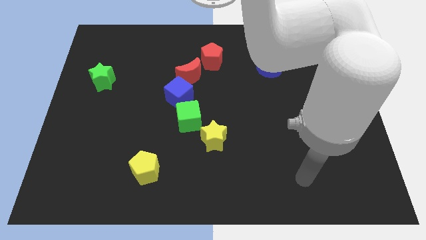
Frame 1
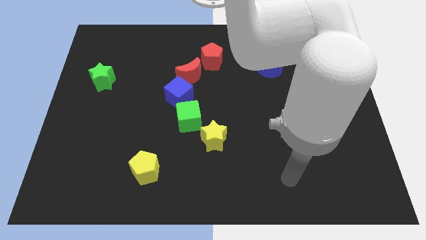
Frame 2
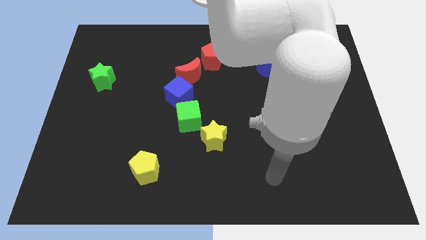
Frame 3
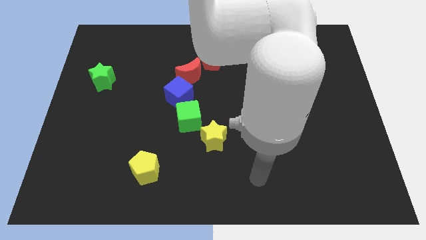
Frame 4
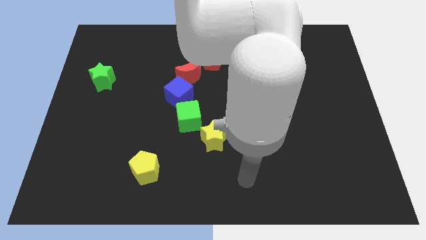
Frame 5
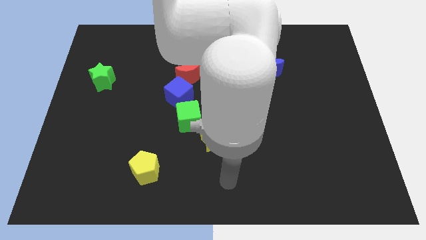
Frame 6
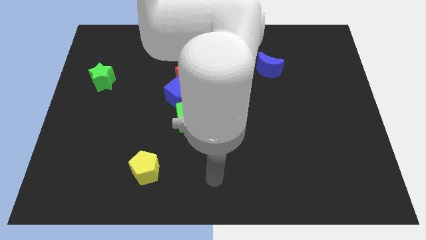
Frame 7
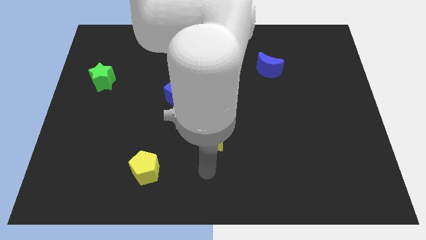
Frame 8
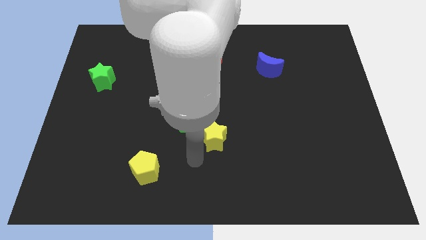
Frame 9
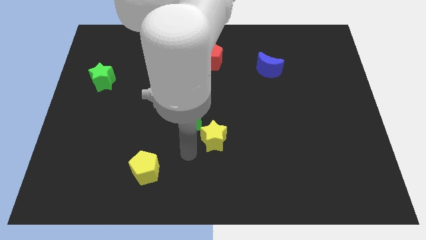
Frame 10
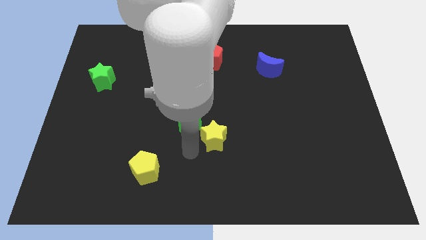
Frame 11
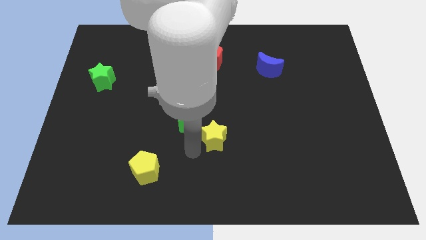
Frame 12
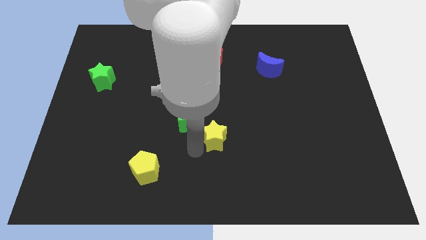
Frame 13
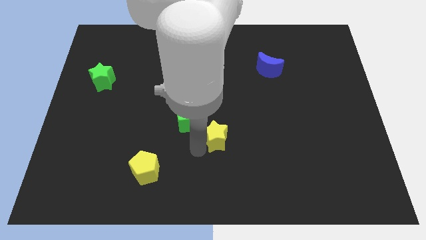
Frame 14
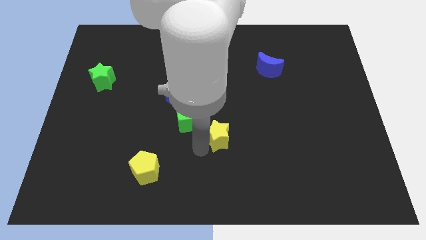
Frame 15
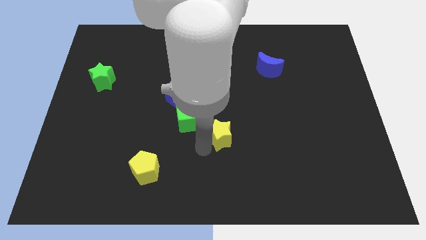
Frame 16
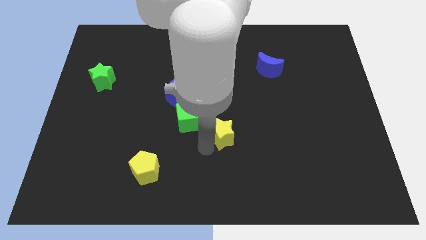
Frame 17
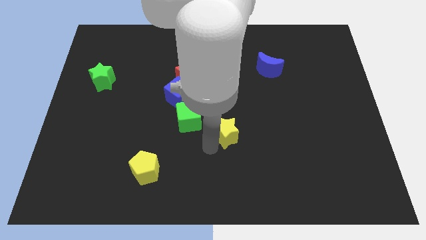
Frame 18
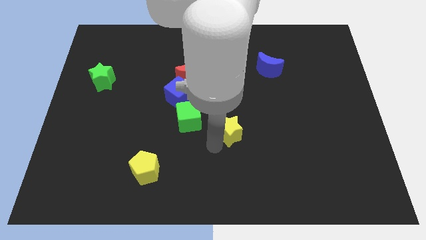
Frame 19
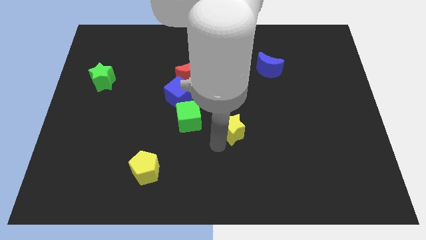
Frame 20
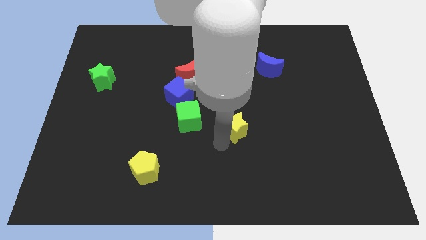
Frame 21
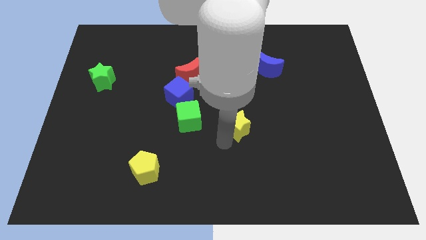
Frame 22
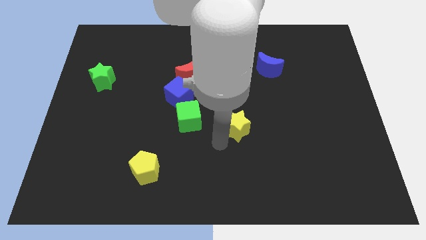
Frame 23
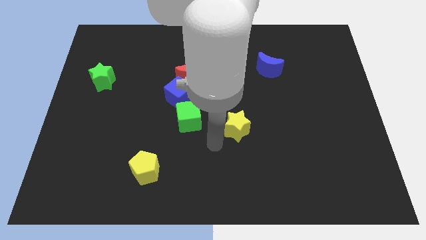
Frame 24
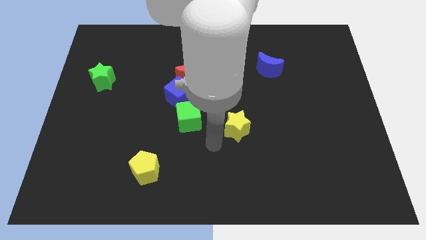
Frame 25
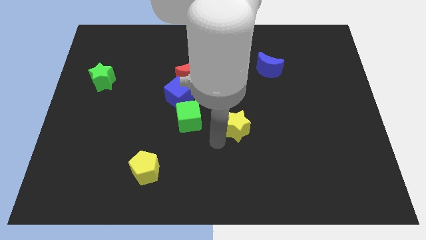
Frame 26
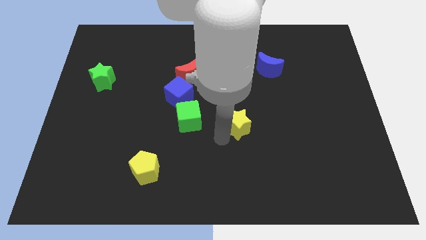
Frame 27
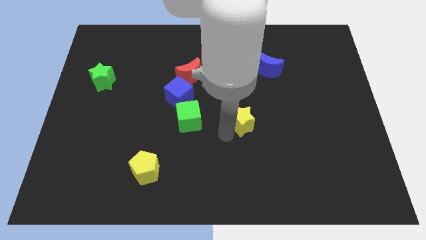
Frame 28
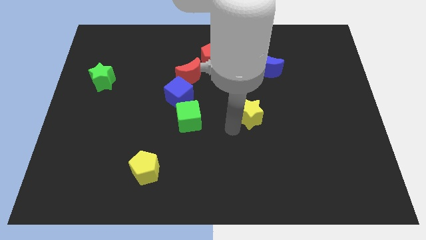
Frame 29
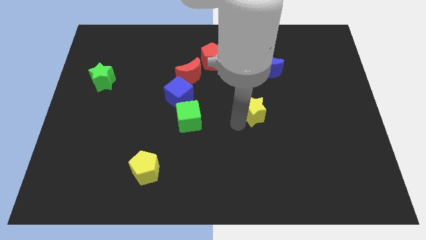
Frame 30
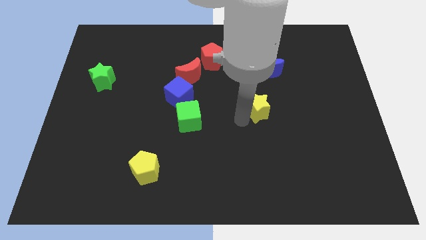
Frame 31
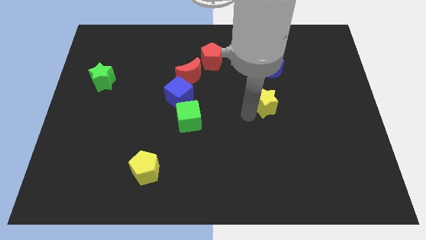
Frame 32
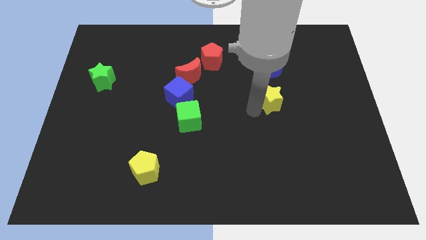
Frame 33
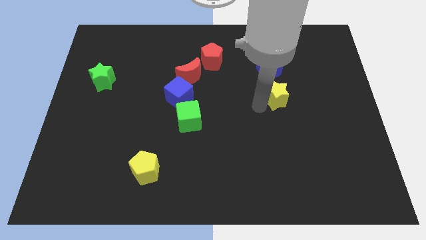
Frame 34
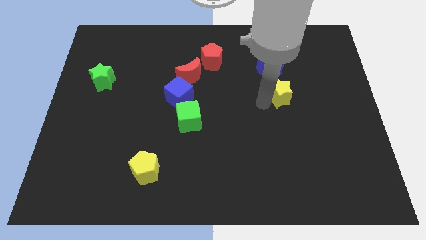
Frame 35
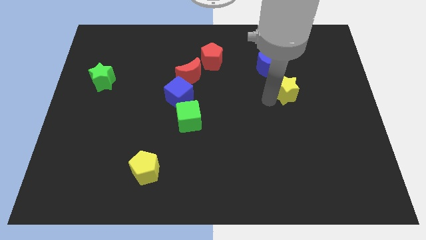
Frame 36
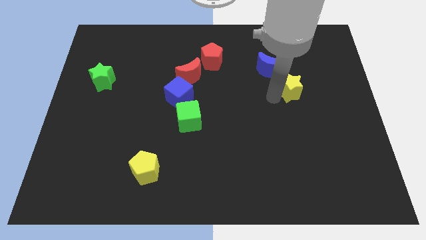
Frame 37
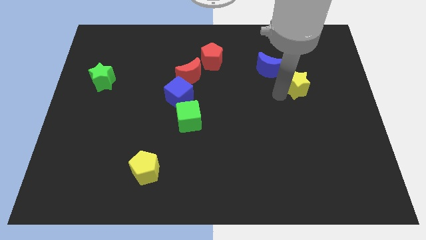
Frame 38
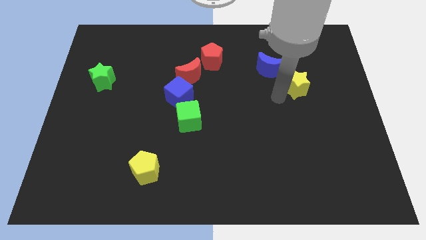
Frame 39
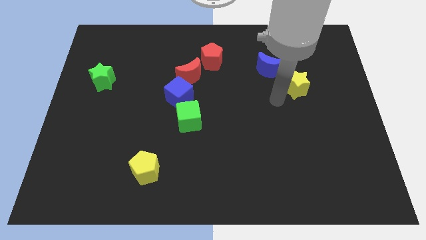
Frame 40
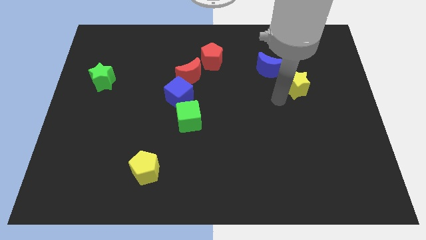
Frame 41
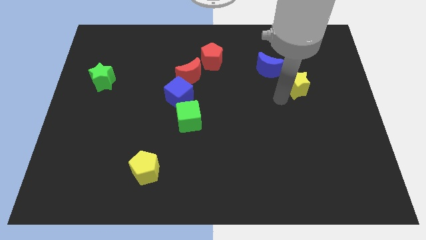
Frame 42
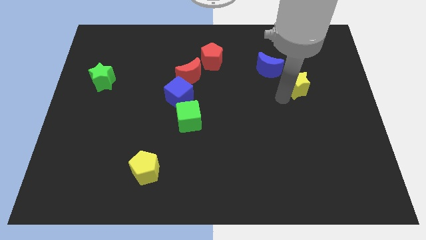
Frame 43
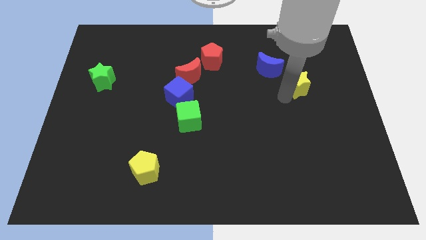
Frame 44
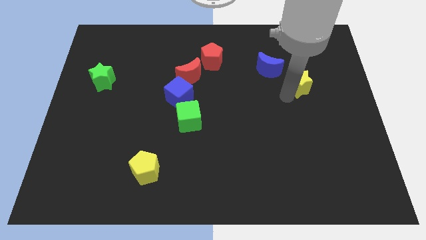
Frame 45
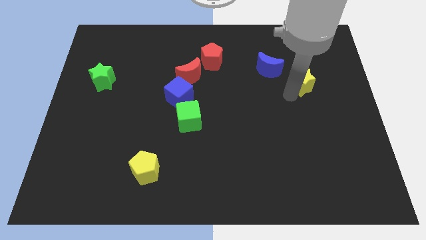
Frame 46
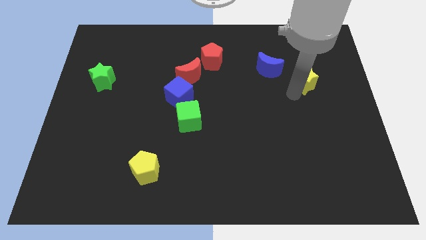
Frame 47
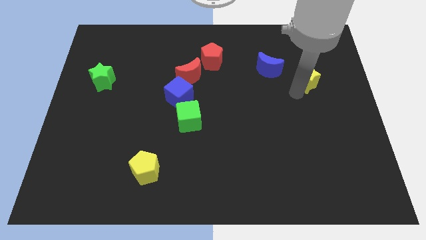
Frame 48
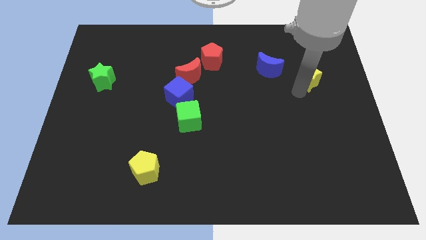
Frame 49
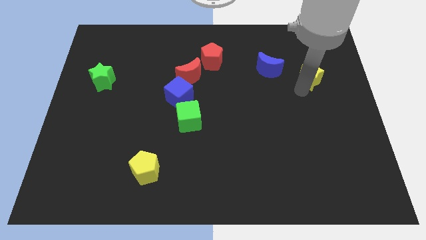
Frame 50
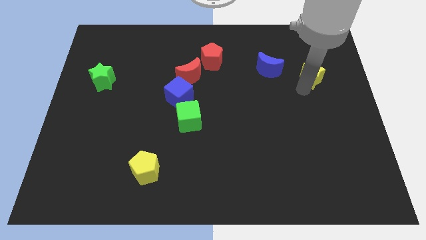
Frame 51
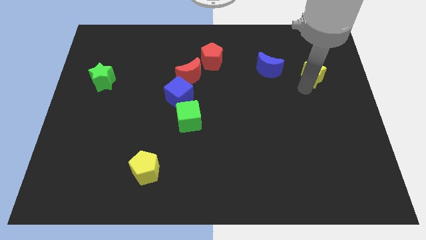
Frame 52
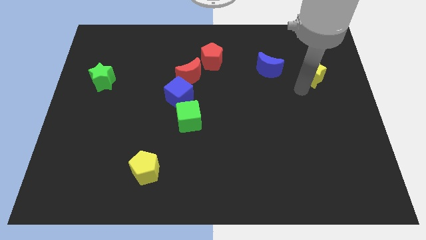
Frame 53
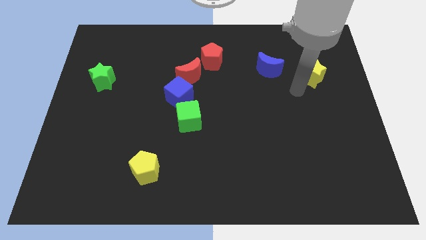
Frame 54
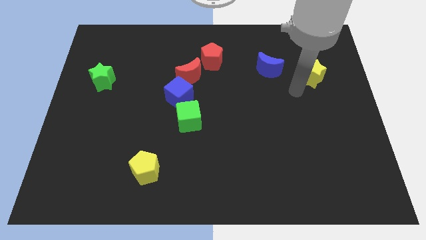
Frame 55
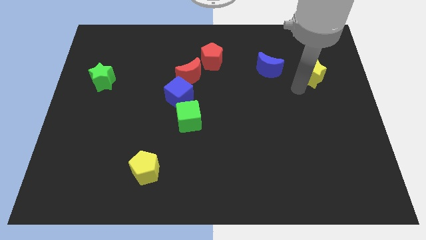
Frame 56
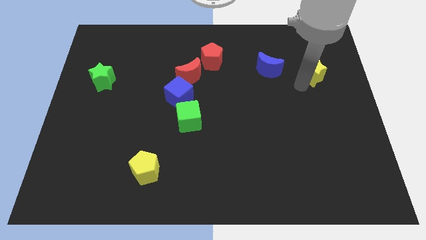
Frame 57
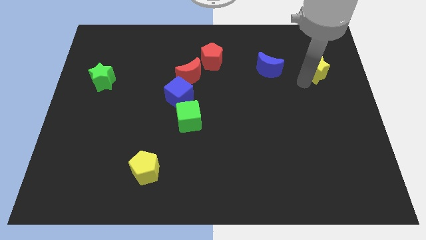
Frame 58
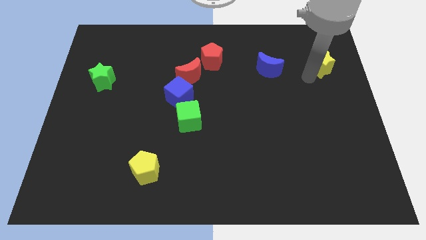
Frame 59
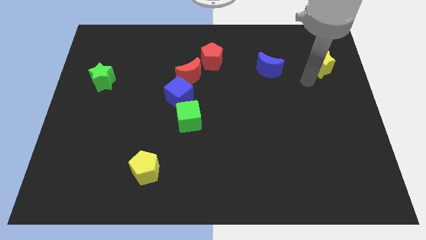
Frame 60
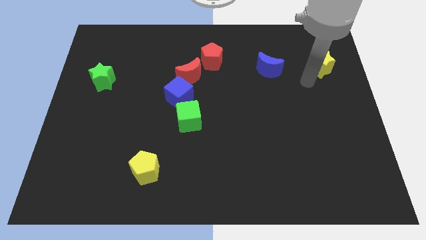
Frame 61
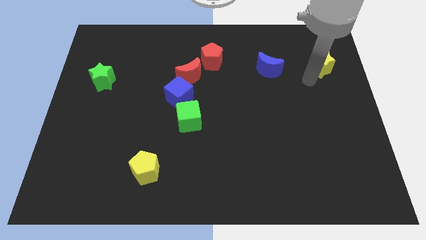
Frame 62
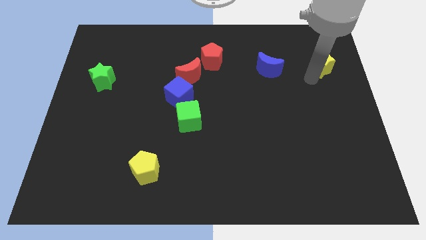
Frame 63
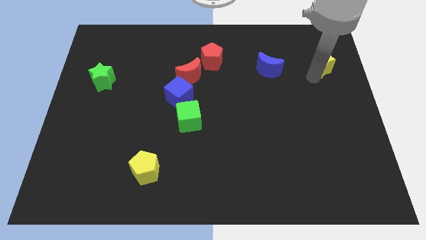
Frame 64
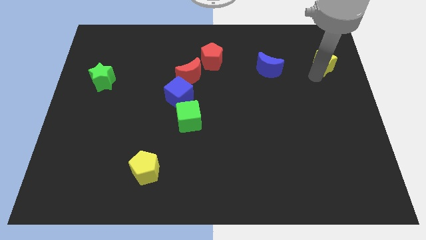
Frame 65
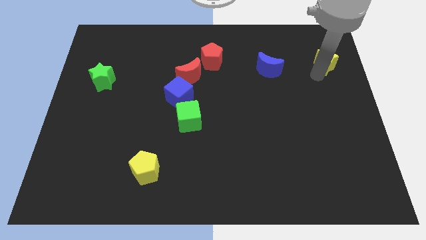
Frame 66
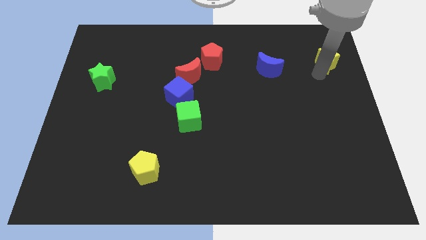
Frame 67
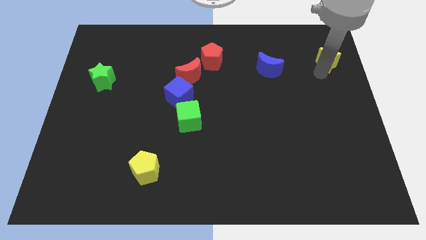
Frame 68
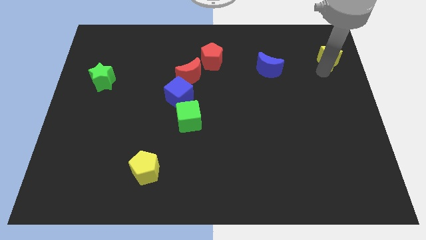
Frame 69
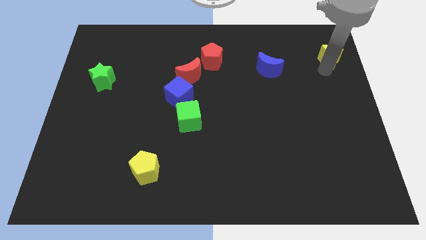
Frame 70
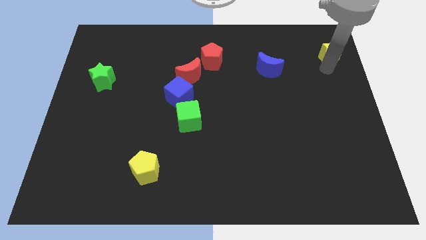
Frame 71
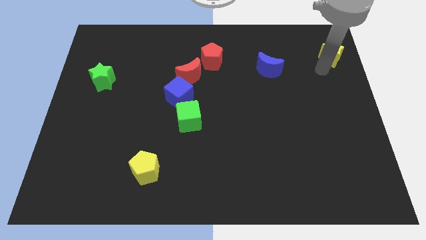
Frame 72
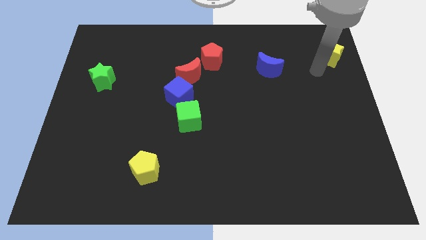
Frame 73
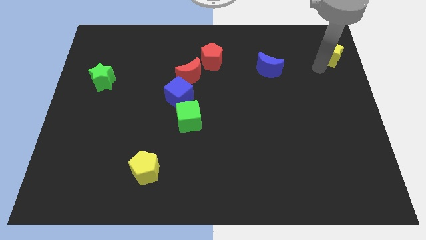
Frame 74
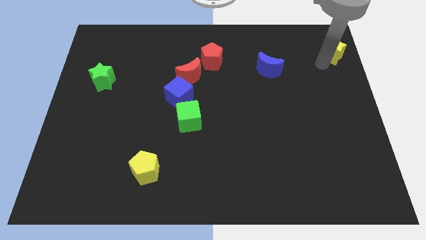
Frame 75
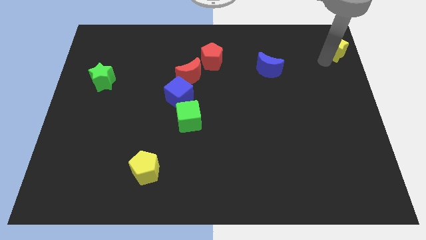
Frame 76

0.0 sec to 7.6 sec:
put the yellow star to the upper right corner
